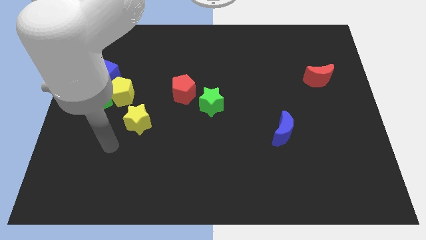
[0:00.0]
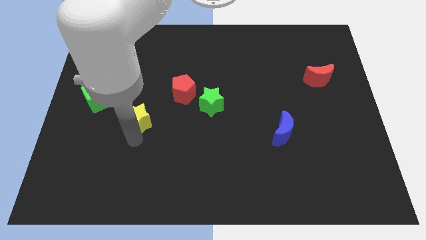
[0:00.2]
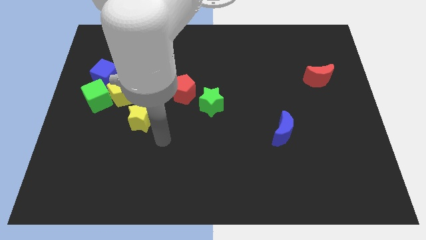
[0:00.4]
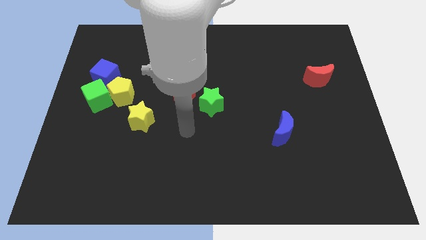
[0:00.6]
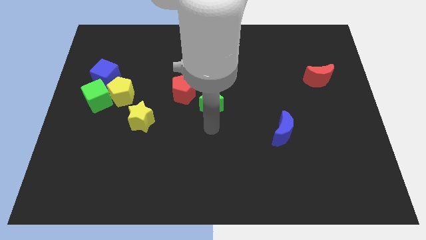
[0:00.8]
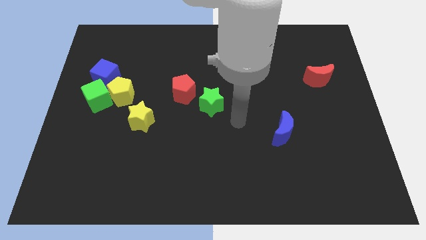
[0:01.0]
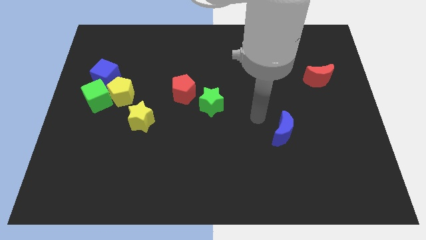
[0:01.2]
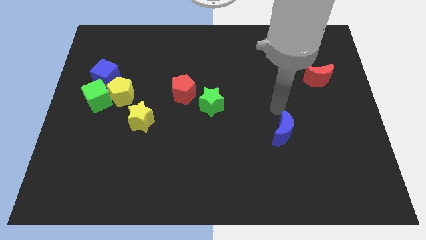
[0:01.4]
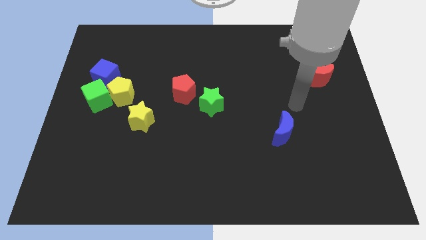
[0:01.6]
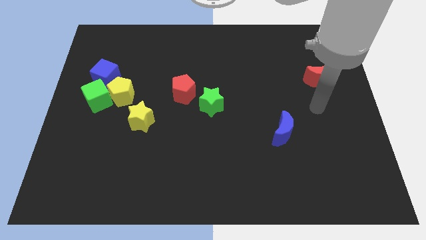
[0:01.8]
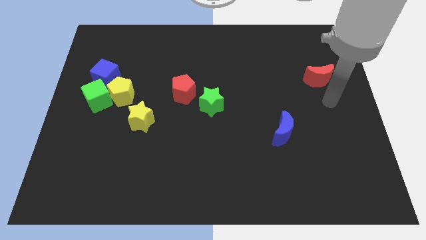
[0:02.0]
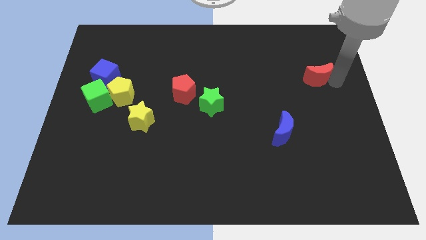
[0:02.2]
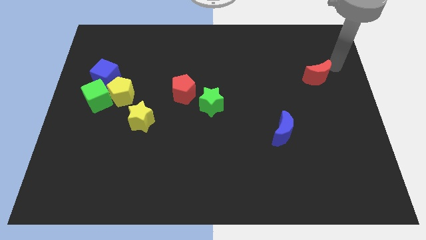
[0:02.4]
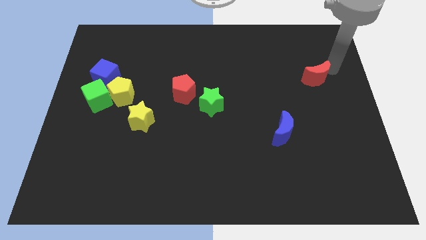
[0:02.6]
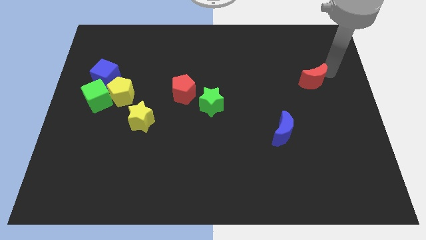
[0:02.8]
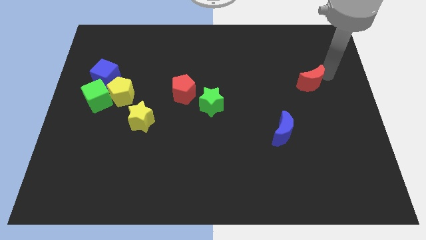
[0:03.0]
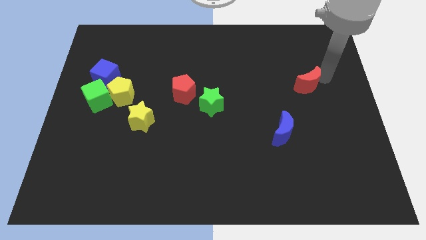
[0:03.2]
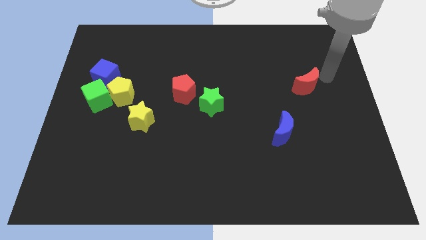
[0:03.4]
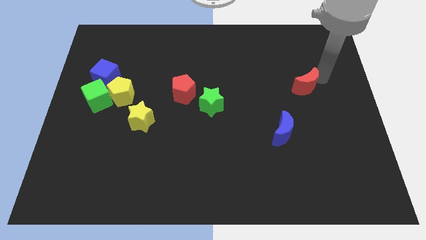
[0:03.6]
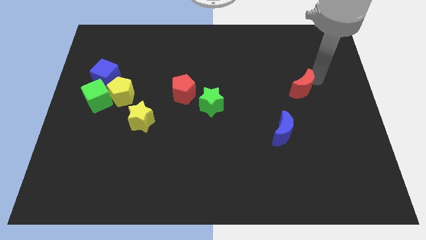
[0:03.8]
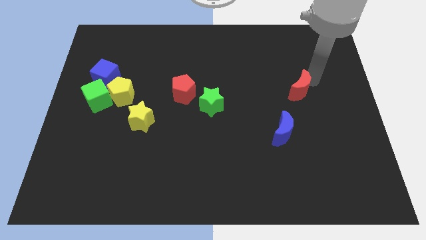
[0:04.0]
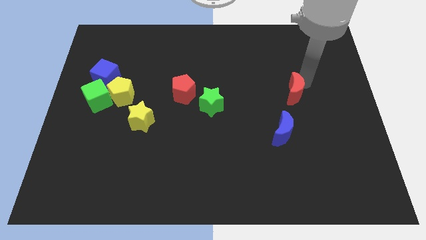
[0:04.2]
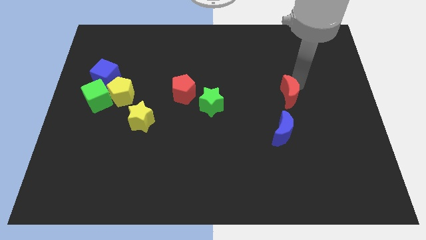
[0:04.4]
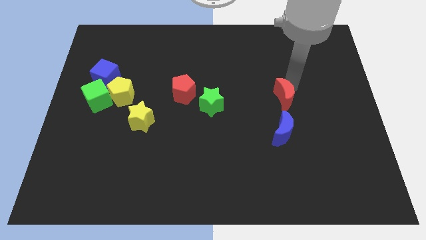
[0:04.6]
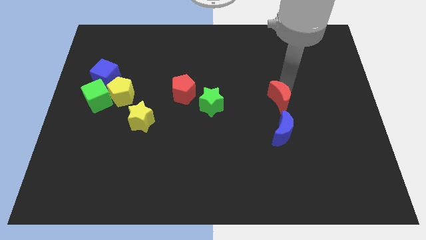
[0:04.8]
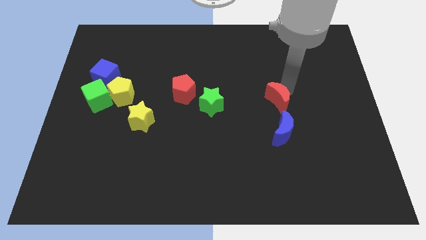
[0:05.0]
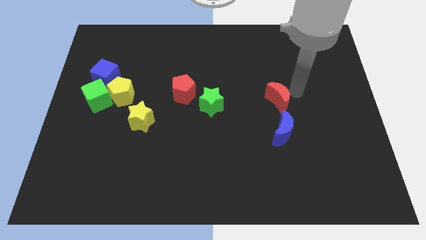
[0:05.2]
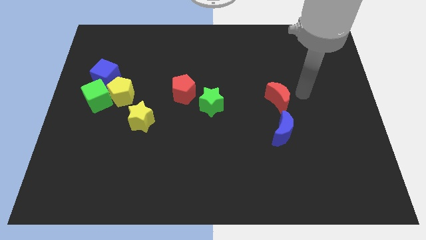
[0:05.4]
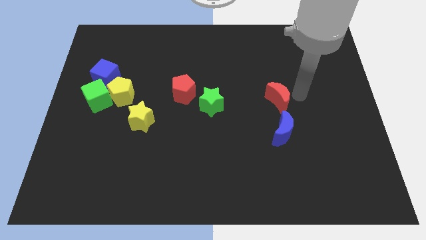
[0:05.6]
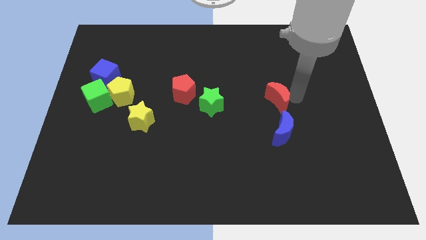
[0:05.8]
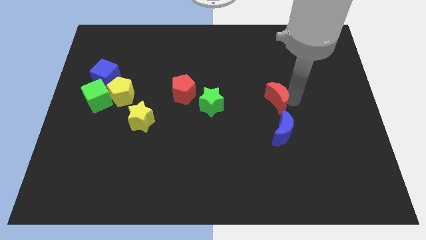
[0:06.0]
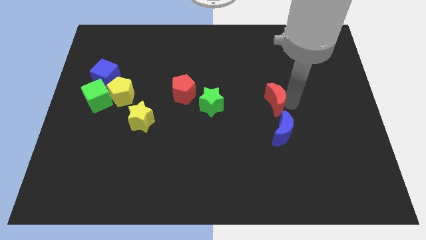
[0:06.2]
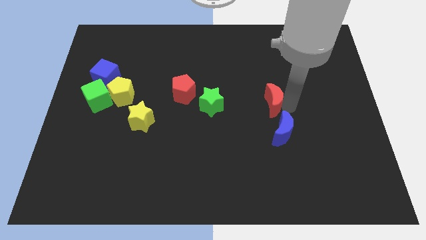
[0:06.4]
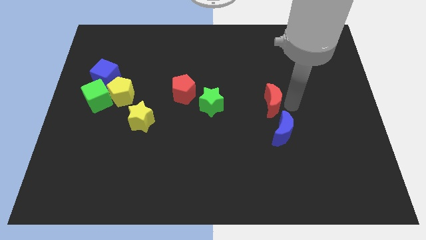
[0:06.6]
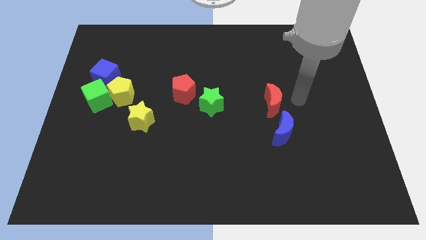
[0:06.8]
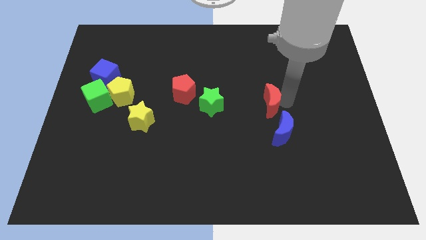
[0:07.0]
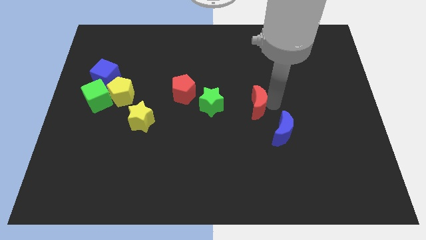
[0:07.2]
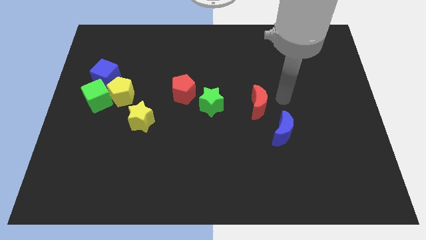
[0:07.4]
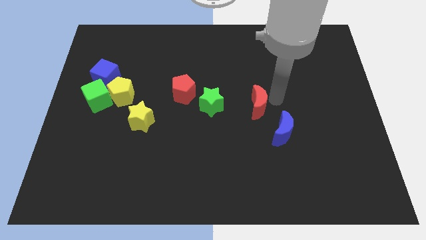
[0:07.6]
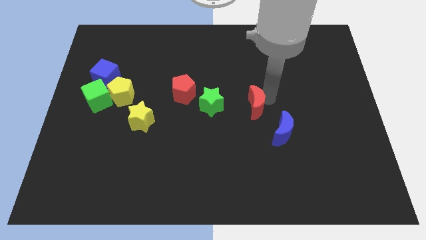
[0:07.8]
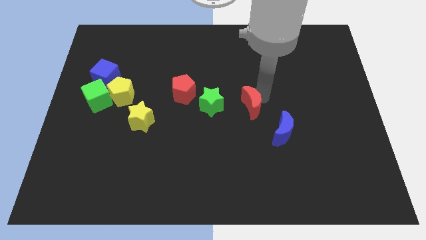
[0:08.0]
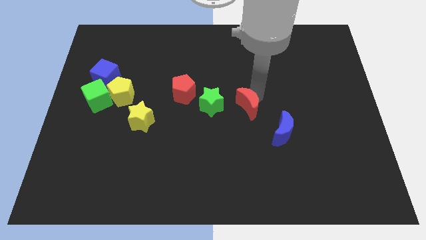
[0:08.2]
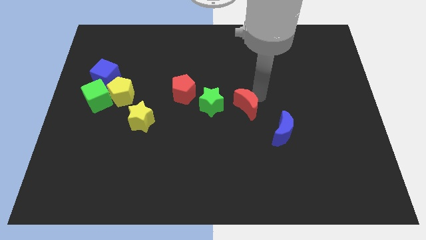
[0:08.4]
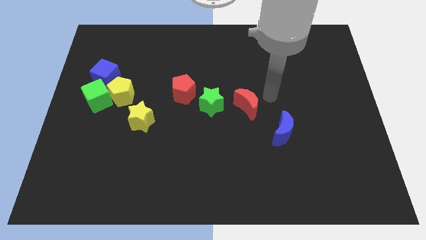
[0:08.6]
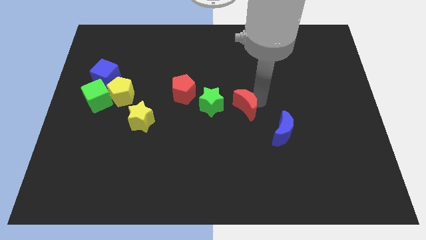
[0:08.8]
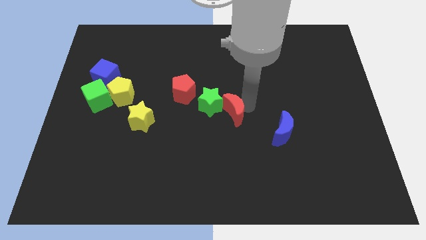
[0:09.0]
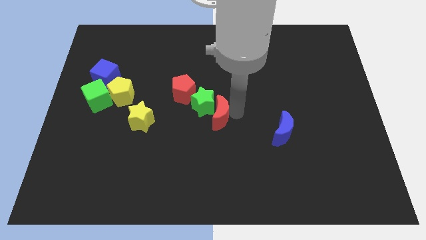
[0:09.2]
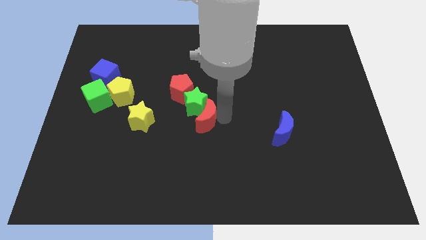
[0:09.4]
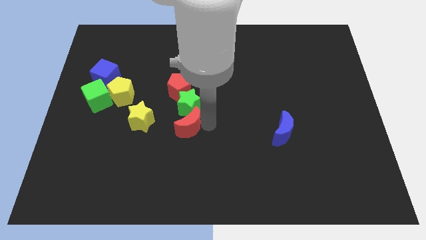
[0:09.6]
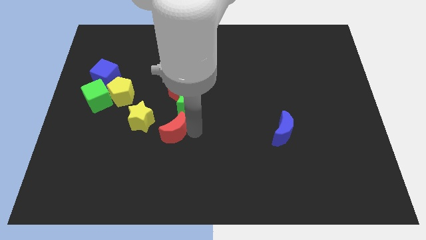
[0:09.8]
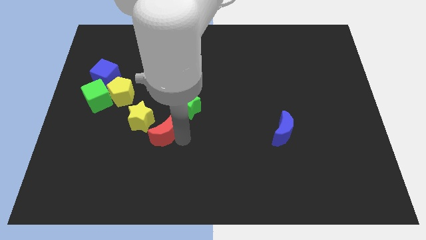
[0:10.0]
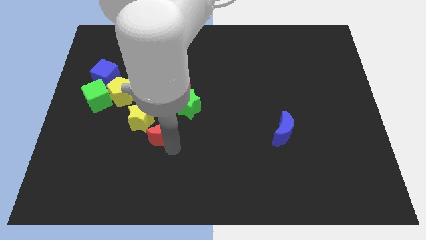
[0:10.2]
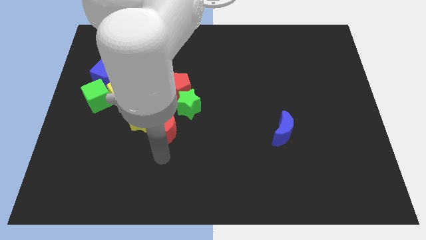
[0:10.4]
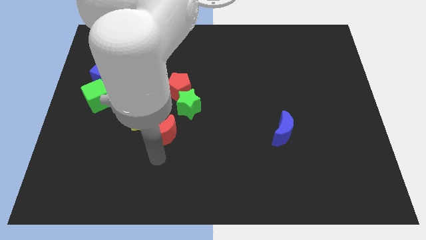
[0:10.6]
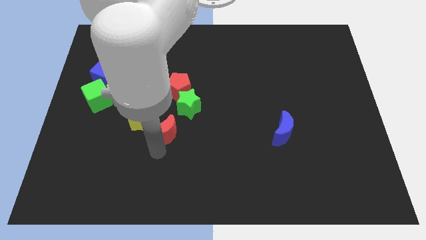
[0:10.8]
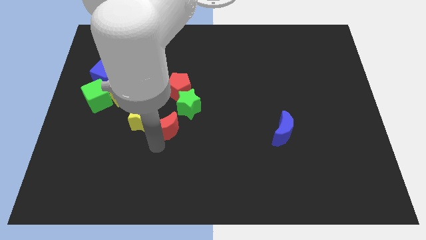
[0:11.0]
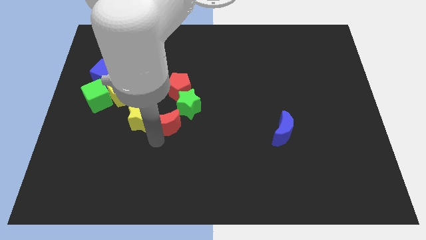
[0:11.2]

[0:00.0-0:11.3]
slide the red moon to the yellow star

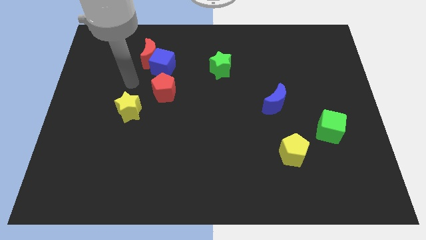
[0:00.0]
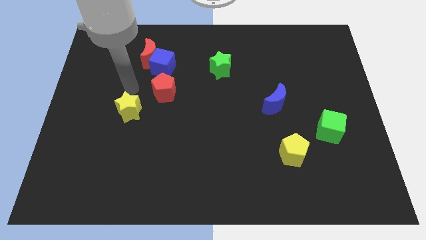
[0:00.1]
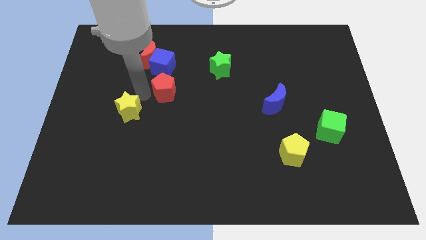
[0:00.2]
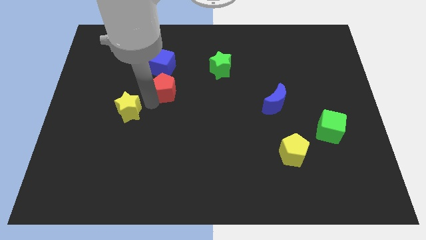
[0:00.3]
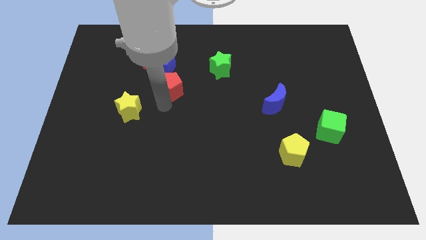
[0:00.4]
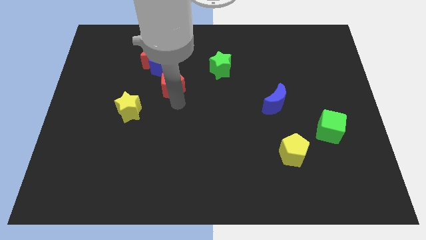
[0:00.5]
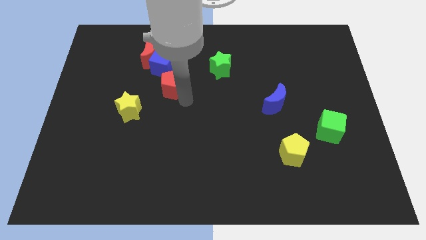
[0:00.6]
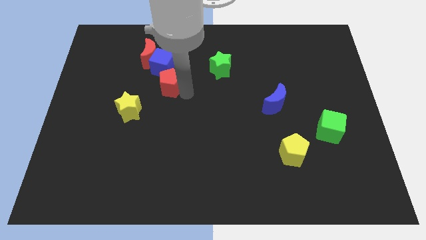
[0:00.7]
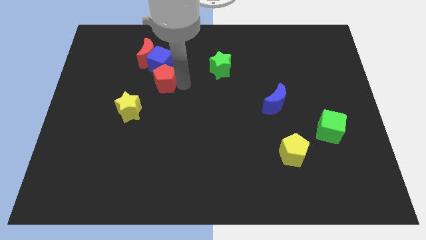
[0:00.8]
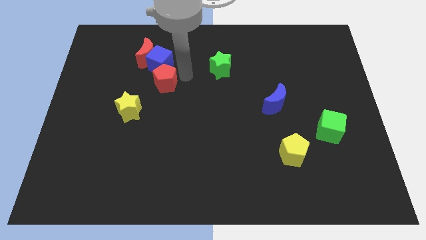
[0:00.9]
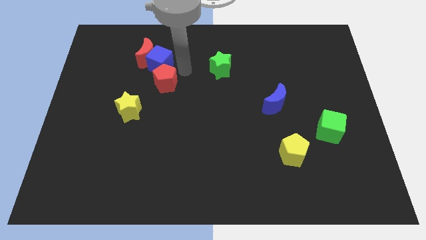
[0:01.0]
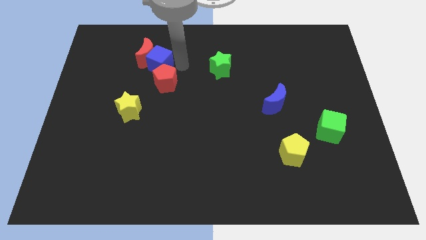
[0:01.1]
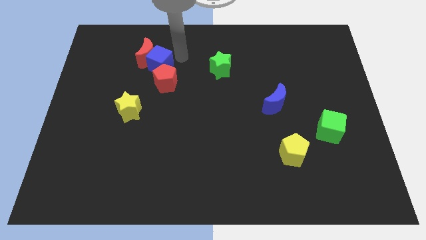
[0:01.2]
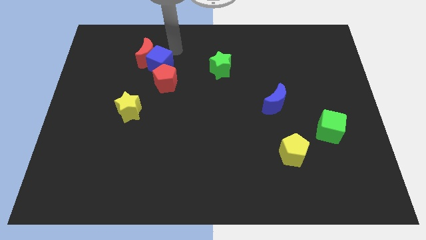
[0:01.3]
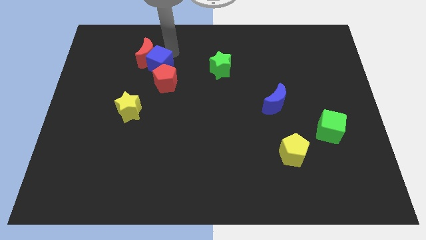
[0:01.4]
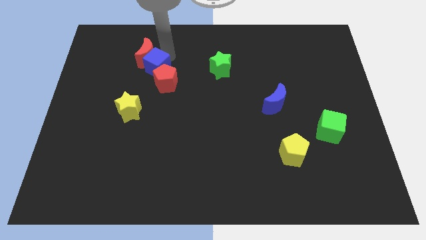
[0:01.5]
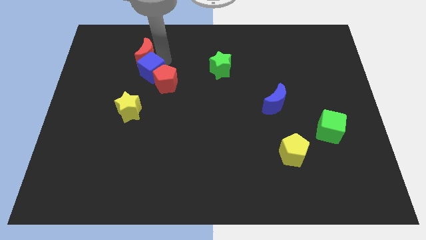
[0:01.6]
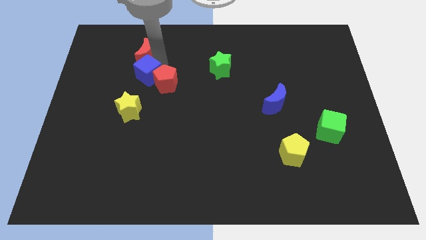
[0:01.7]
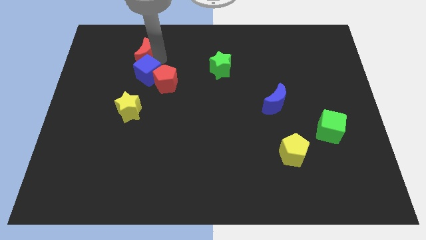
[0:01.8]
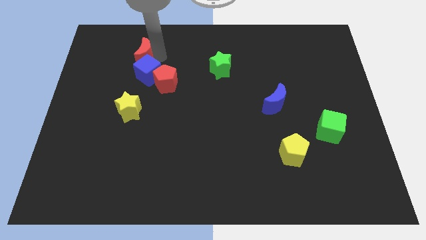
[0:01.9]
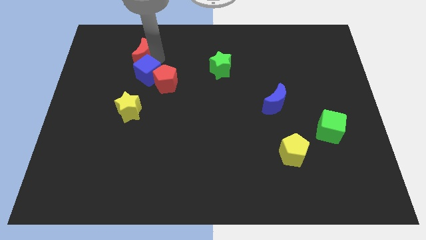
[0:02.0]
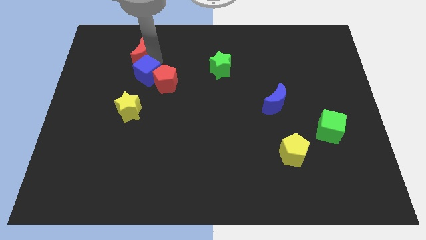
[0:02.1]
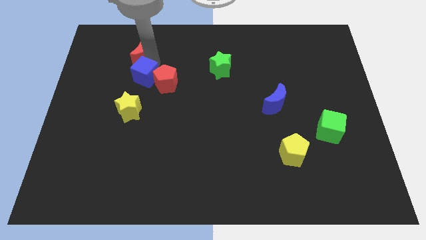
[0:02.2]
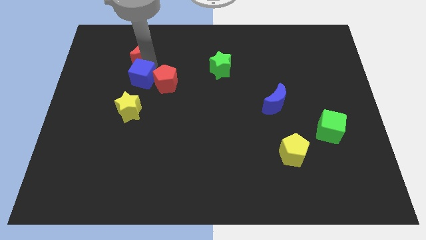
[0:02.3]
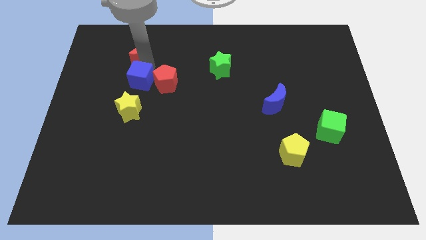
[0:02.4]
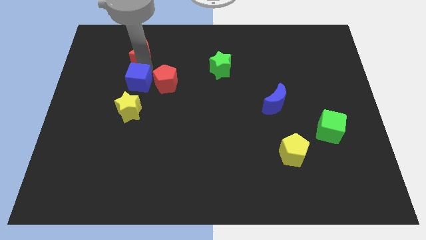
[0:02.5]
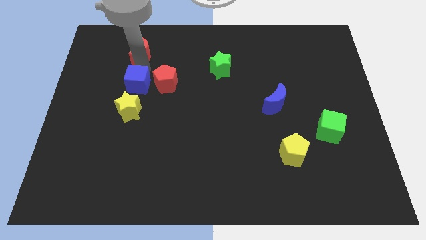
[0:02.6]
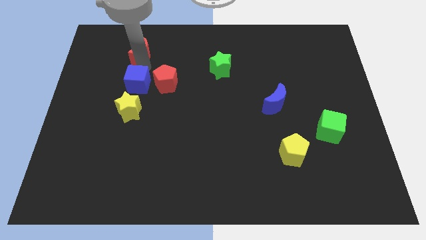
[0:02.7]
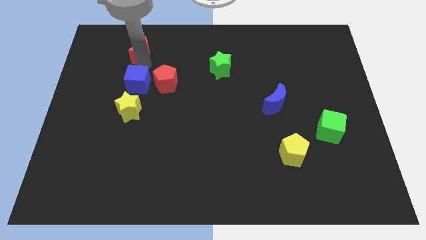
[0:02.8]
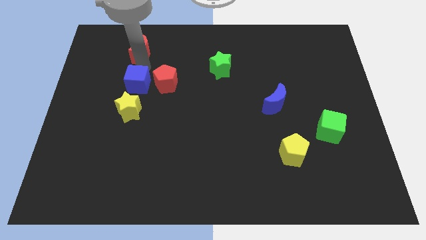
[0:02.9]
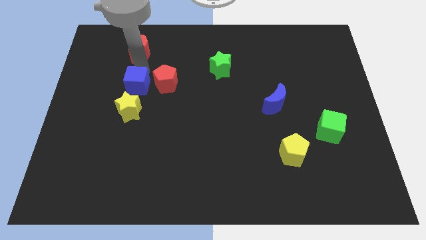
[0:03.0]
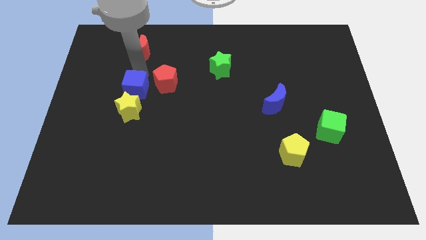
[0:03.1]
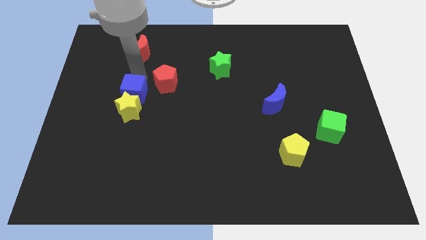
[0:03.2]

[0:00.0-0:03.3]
slide the blue cube next to the yellow star
